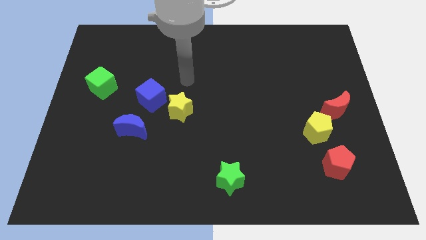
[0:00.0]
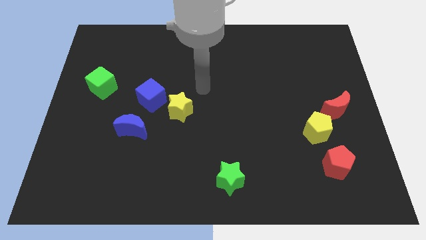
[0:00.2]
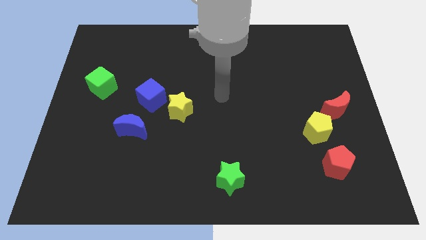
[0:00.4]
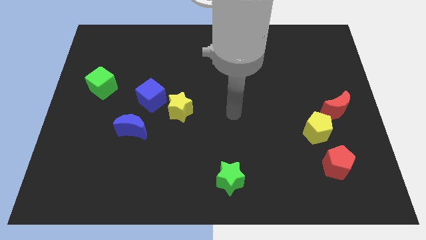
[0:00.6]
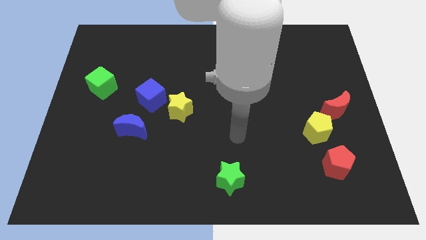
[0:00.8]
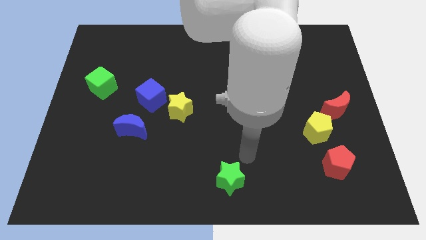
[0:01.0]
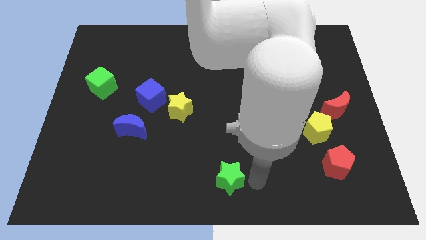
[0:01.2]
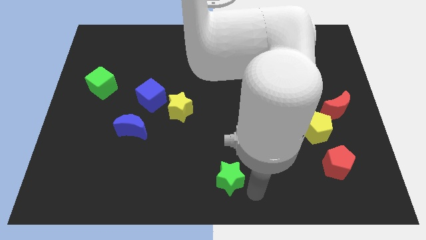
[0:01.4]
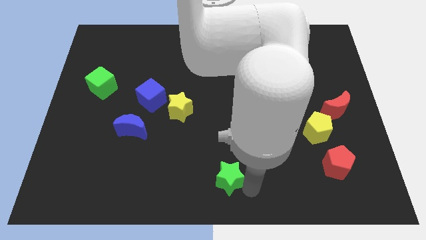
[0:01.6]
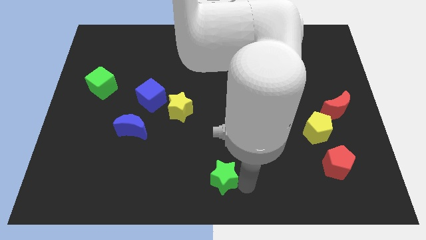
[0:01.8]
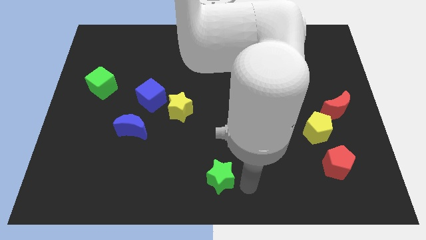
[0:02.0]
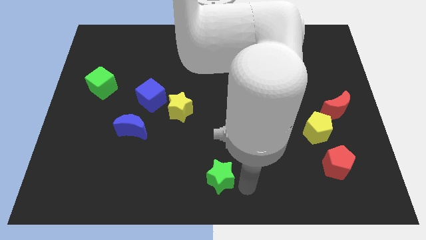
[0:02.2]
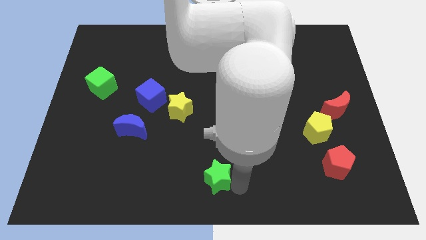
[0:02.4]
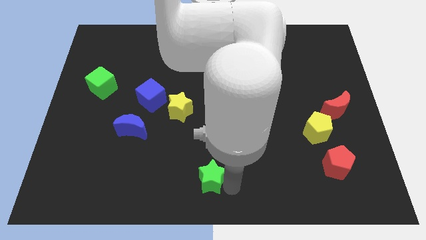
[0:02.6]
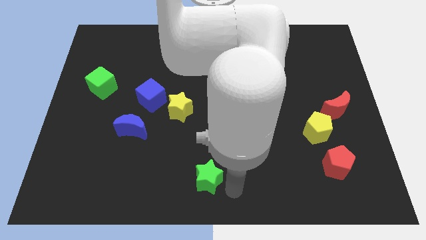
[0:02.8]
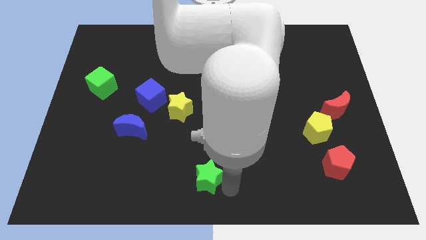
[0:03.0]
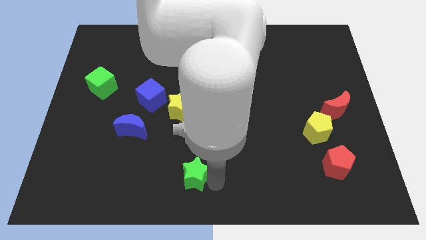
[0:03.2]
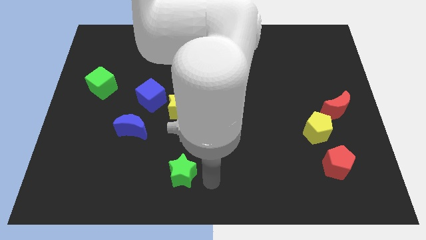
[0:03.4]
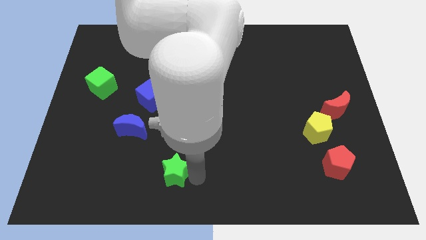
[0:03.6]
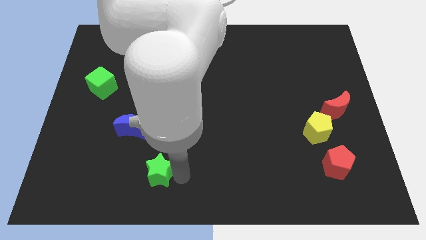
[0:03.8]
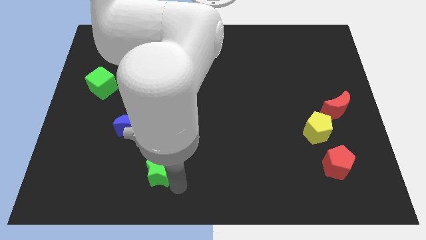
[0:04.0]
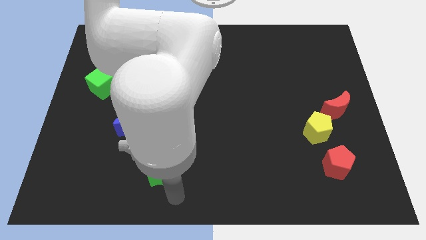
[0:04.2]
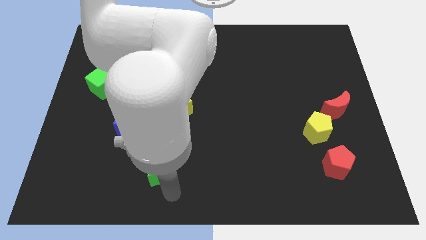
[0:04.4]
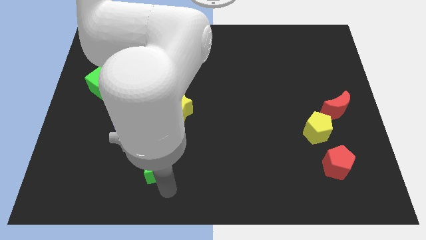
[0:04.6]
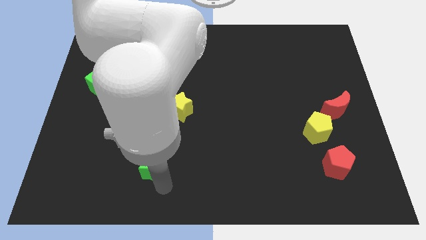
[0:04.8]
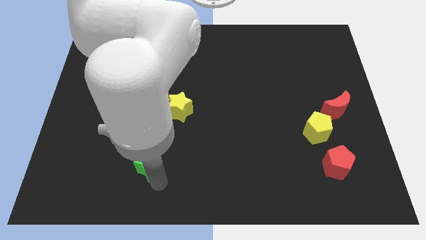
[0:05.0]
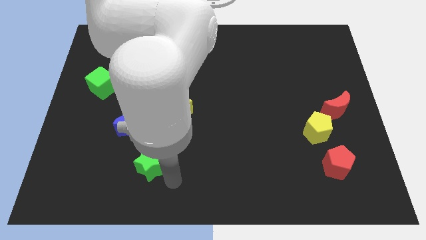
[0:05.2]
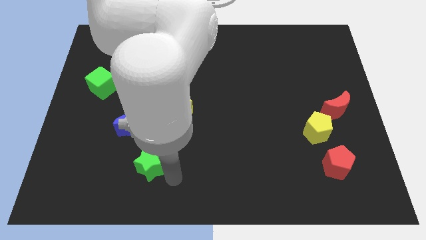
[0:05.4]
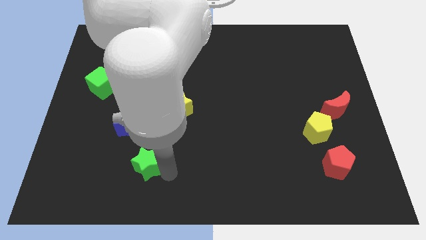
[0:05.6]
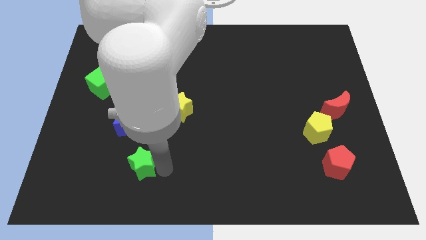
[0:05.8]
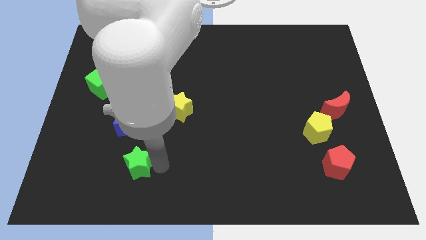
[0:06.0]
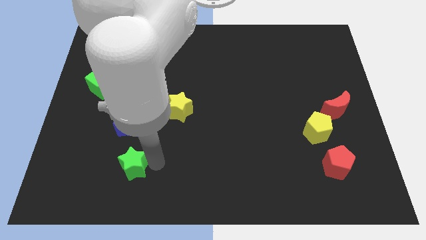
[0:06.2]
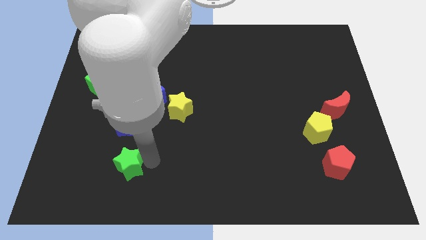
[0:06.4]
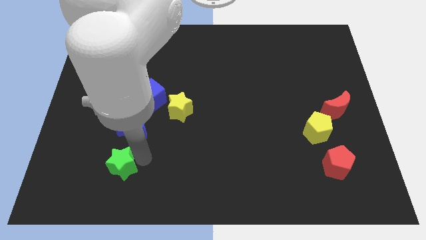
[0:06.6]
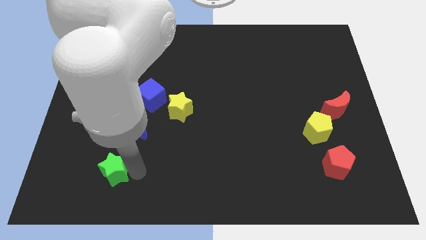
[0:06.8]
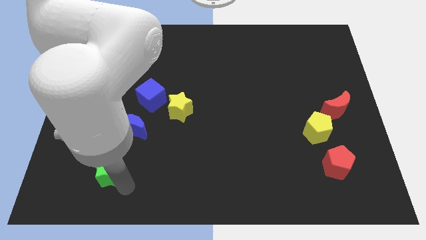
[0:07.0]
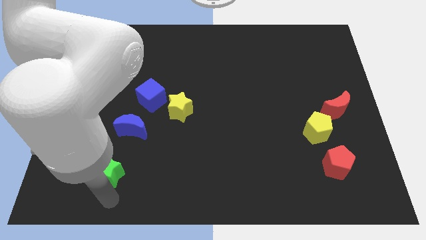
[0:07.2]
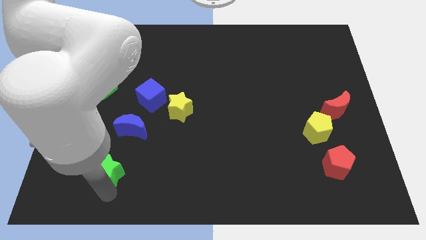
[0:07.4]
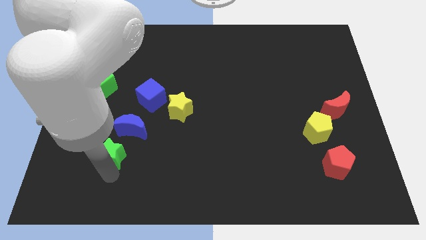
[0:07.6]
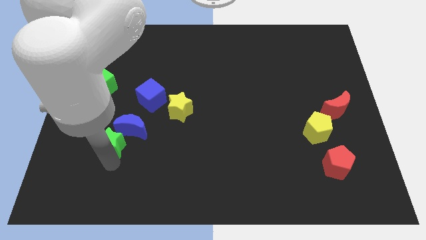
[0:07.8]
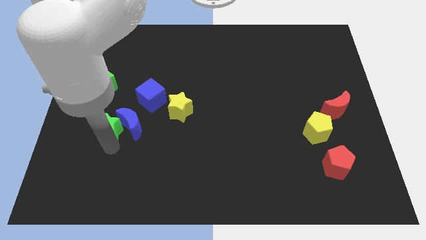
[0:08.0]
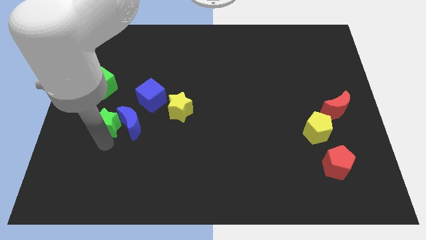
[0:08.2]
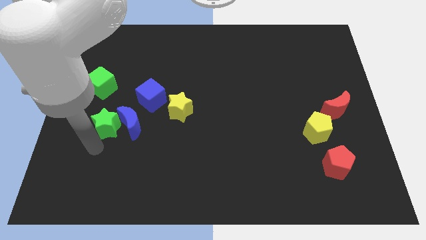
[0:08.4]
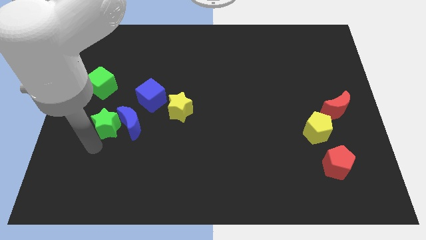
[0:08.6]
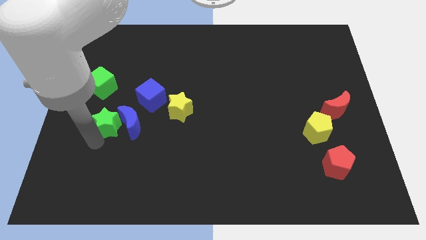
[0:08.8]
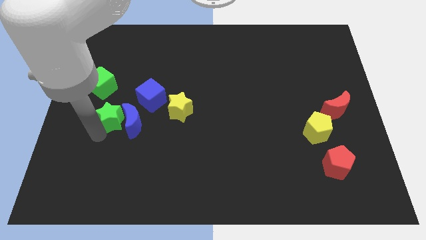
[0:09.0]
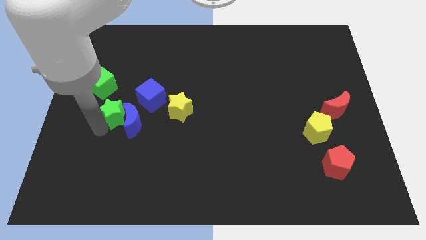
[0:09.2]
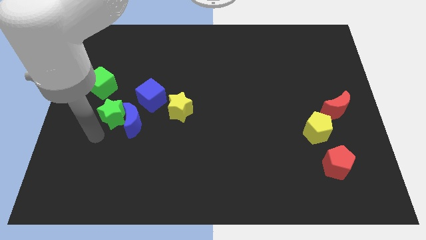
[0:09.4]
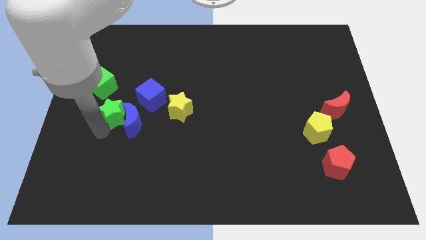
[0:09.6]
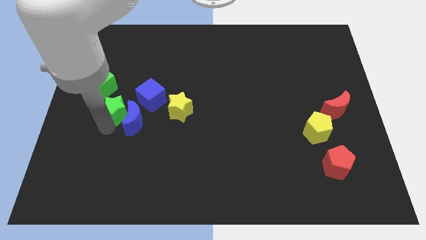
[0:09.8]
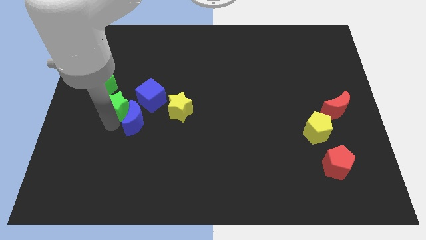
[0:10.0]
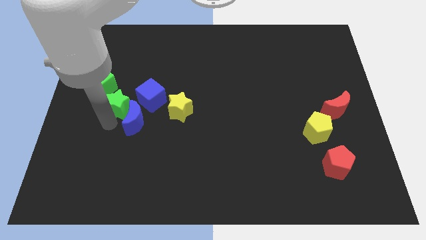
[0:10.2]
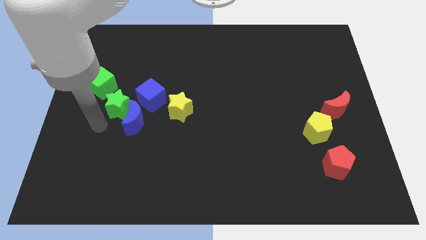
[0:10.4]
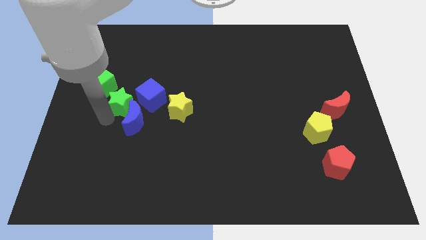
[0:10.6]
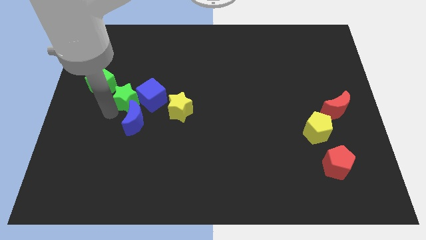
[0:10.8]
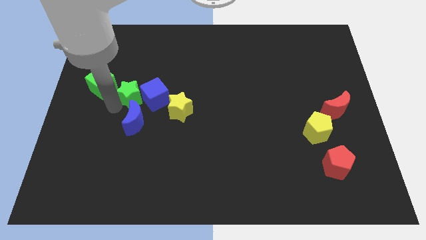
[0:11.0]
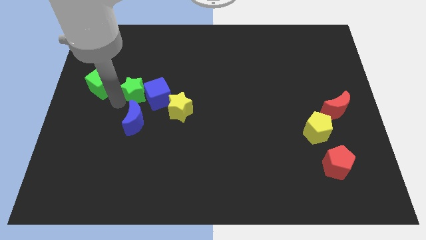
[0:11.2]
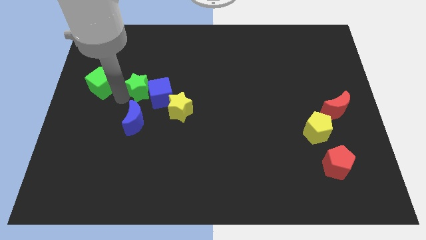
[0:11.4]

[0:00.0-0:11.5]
push the green star diagonally up and to the left of the yellow star

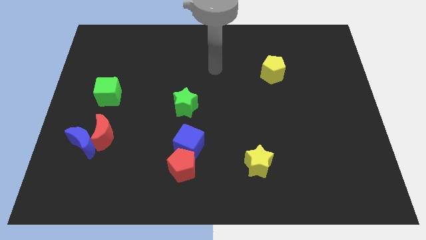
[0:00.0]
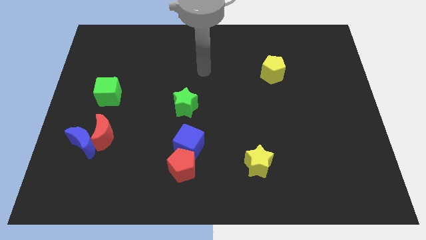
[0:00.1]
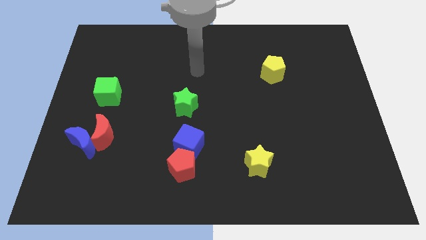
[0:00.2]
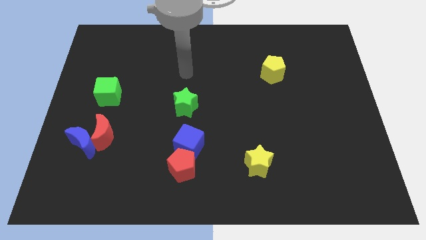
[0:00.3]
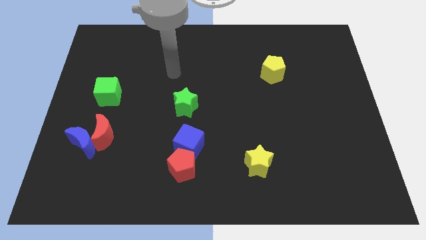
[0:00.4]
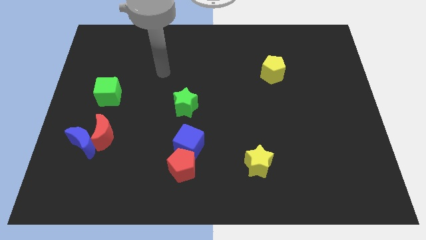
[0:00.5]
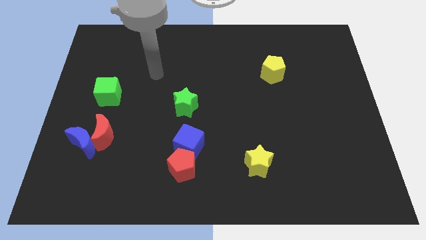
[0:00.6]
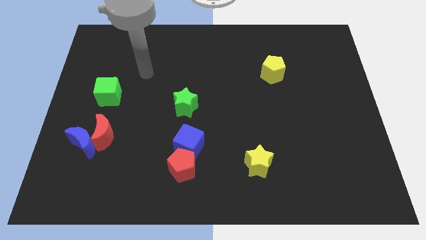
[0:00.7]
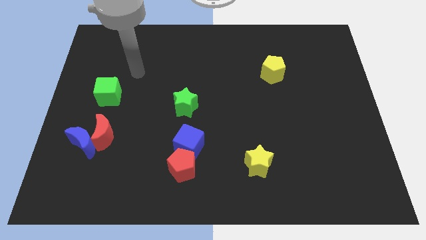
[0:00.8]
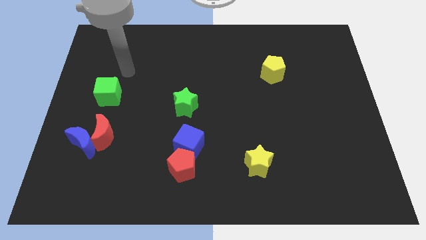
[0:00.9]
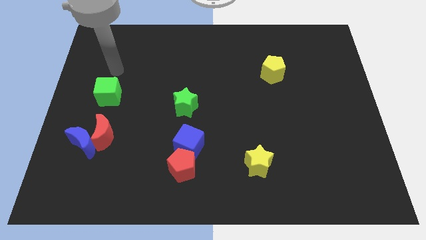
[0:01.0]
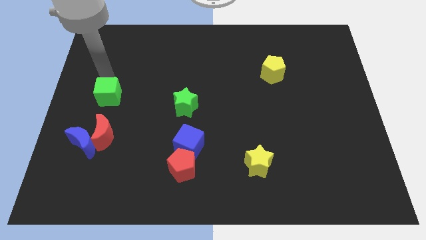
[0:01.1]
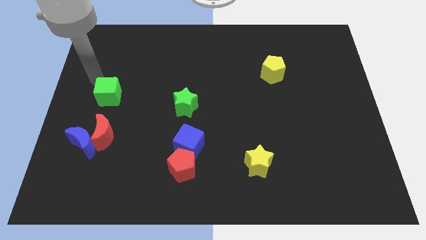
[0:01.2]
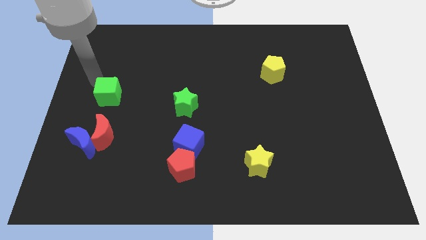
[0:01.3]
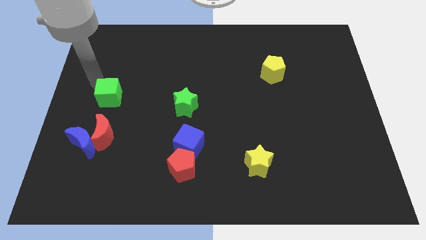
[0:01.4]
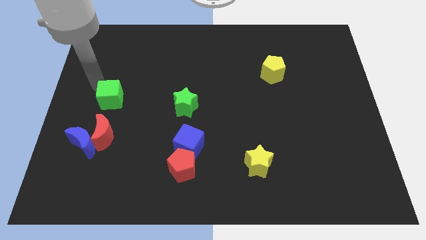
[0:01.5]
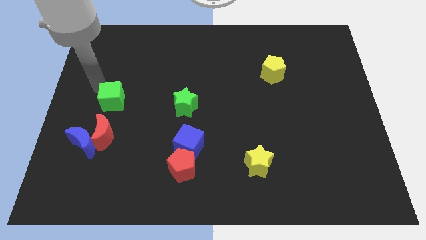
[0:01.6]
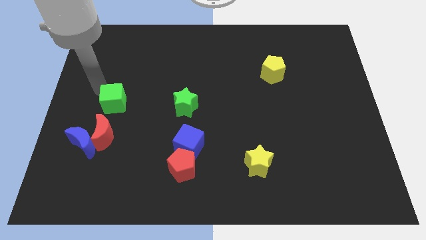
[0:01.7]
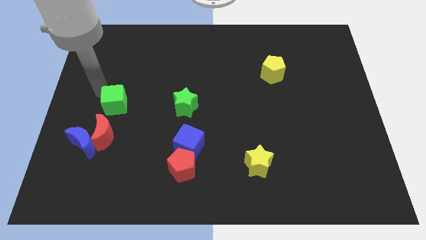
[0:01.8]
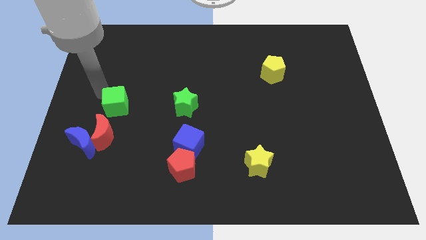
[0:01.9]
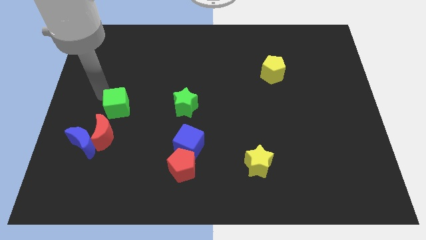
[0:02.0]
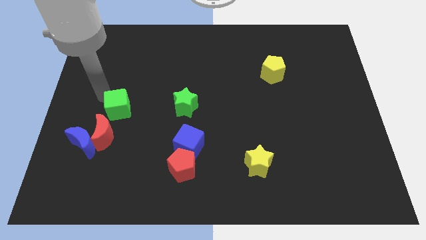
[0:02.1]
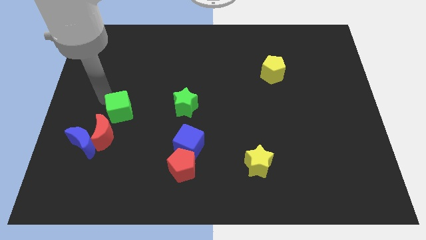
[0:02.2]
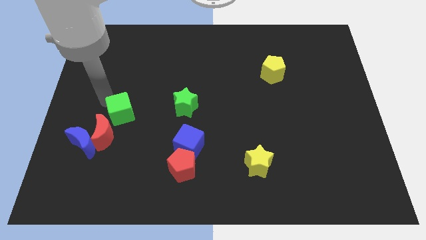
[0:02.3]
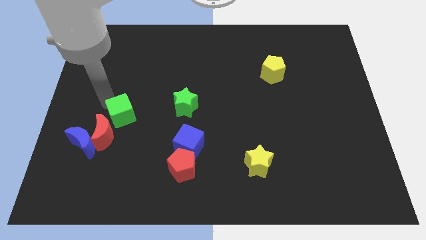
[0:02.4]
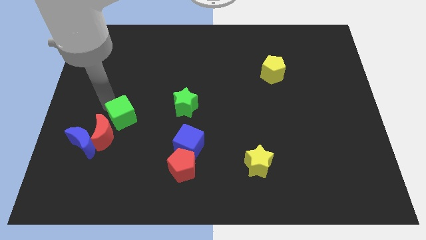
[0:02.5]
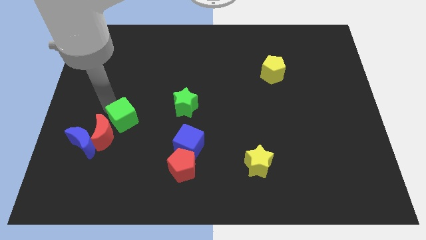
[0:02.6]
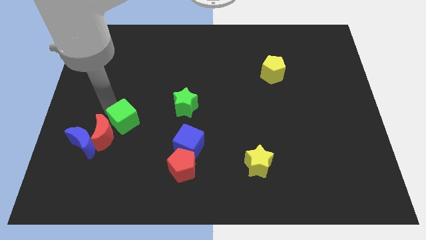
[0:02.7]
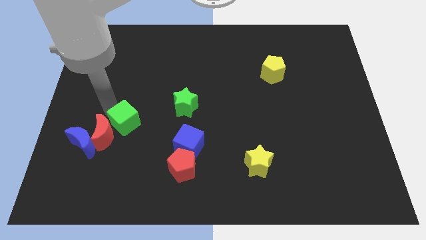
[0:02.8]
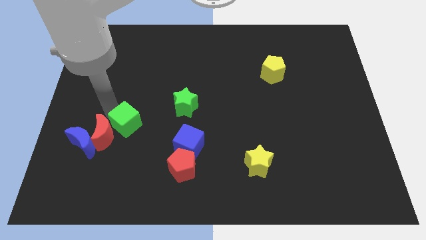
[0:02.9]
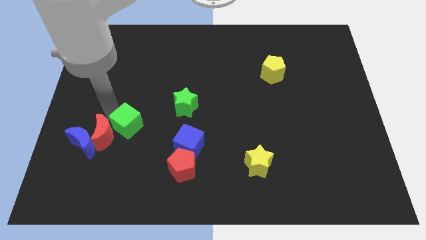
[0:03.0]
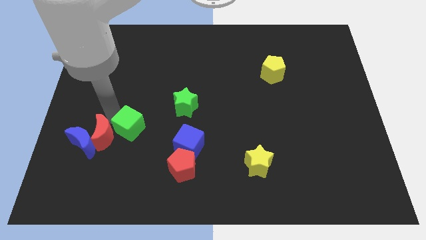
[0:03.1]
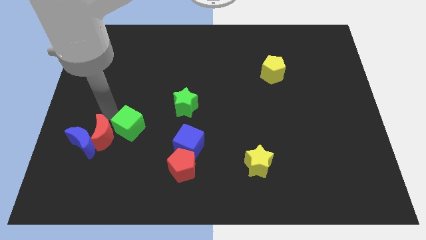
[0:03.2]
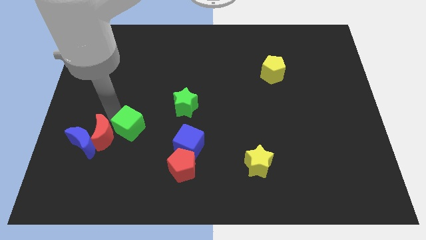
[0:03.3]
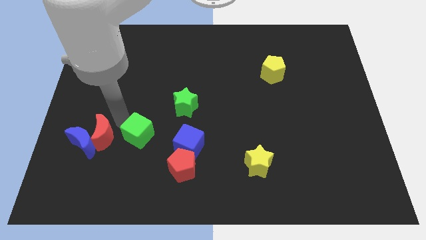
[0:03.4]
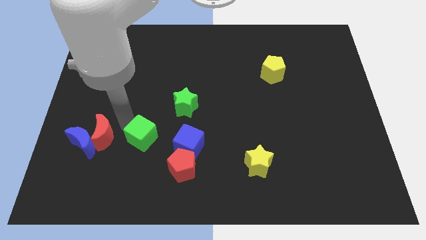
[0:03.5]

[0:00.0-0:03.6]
slide the green cube diagonally up and to the left of the red pentagon
